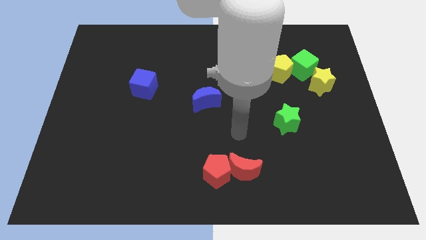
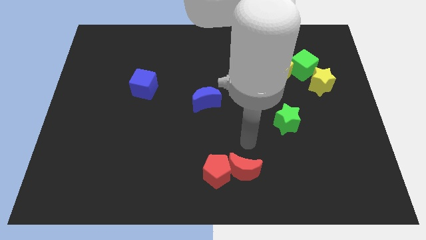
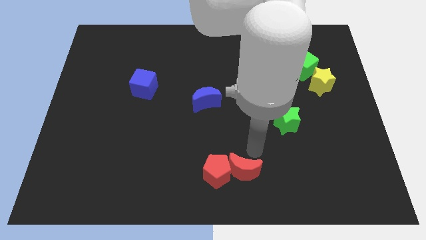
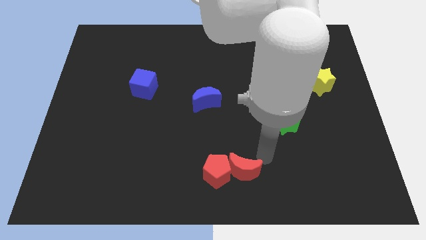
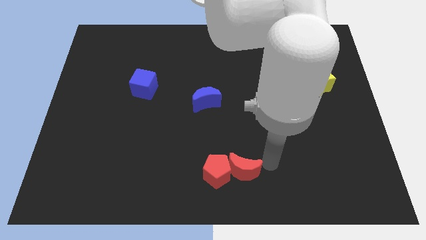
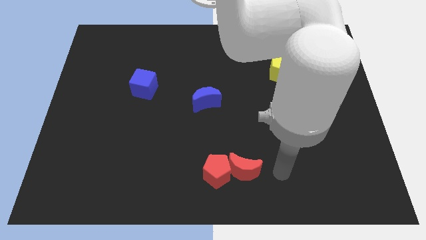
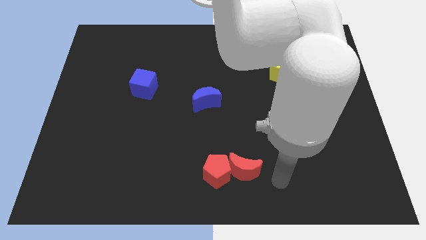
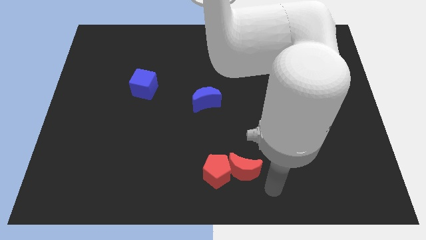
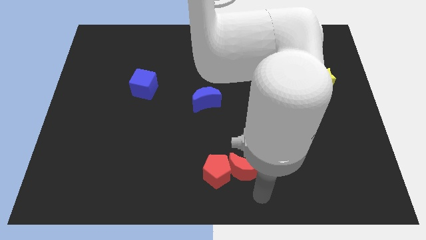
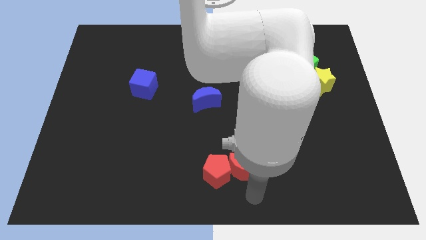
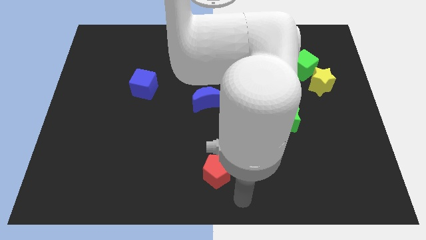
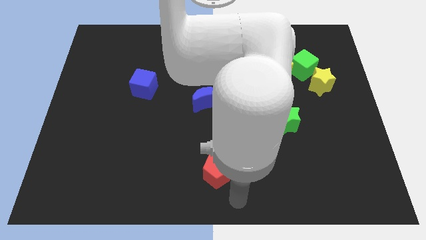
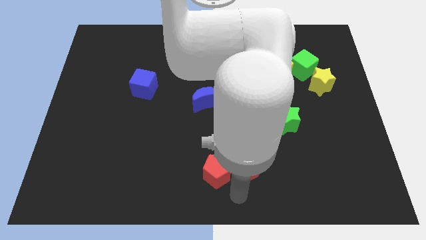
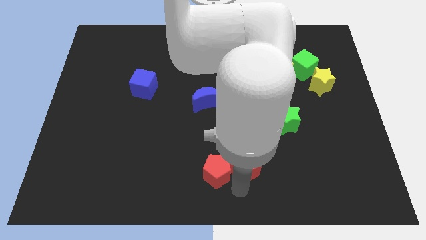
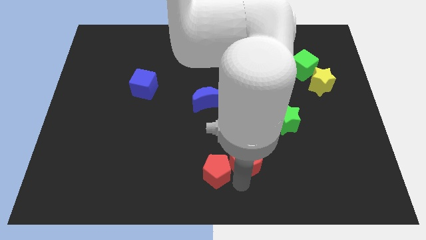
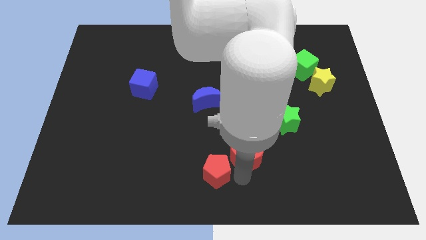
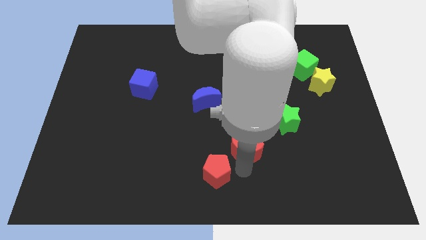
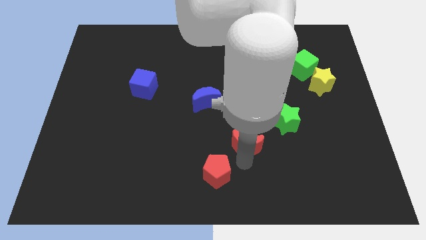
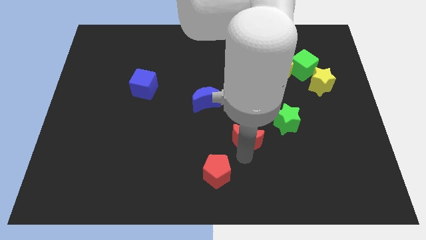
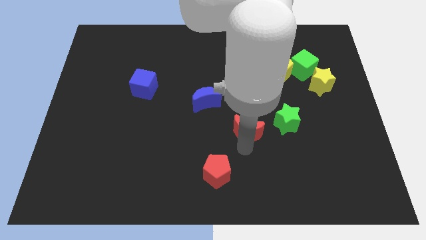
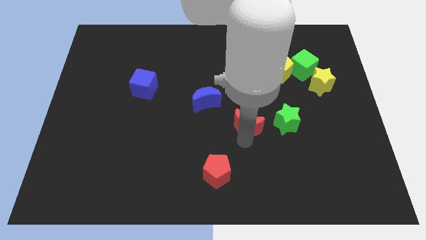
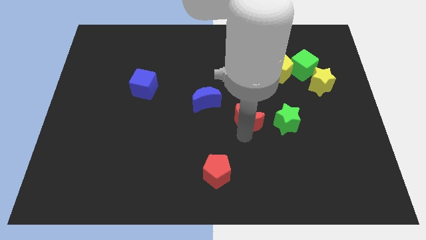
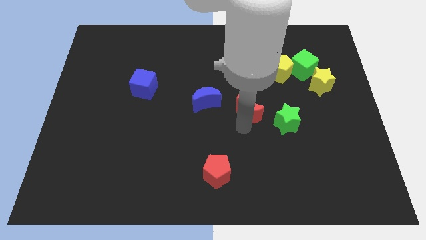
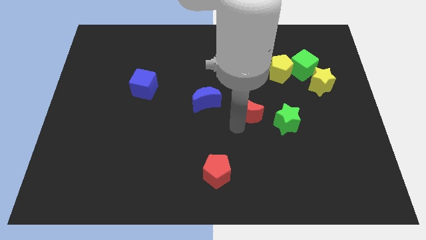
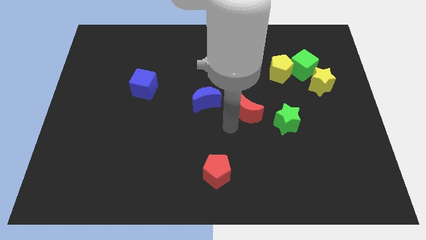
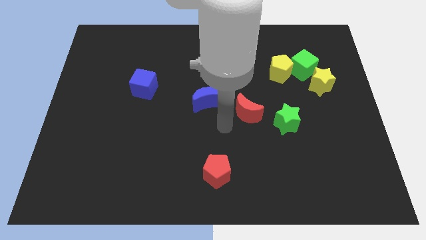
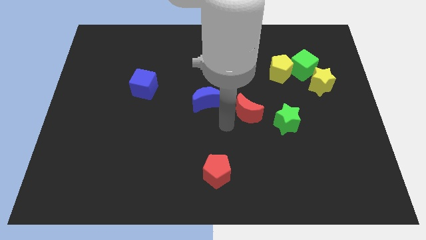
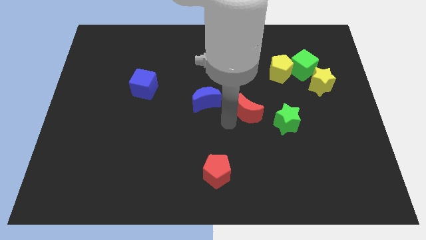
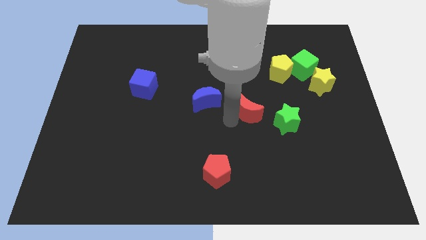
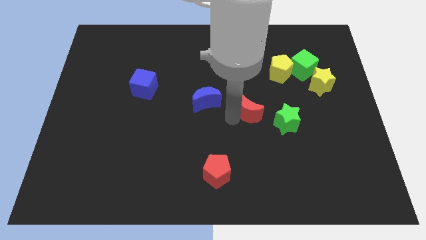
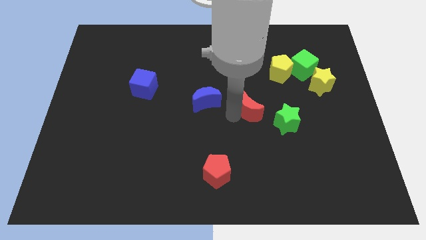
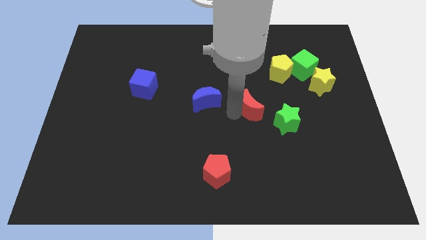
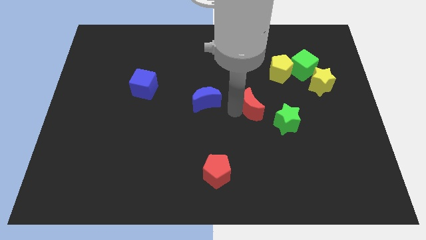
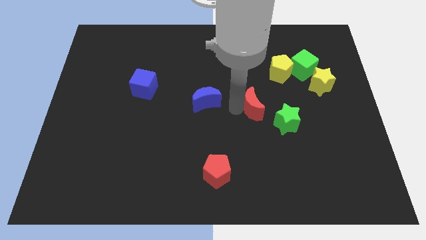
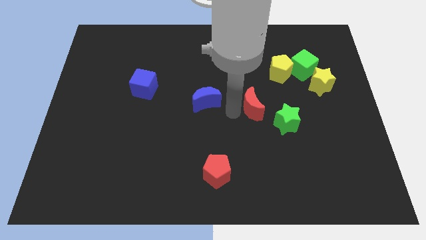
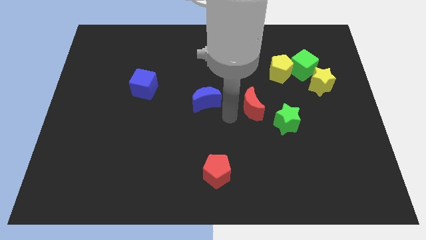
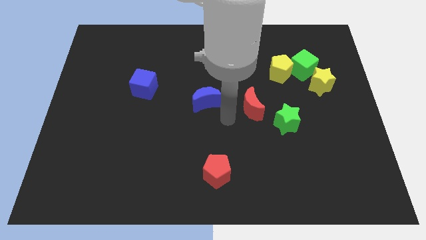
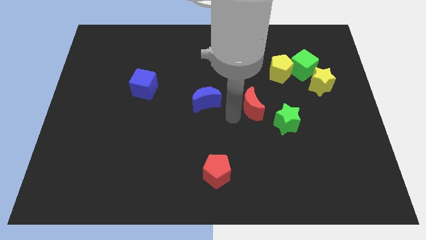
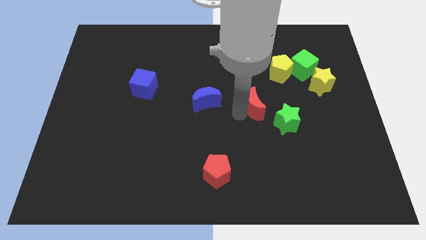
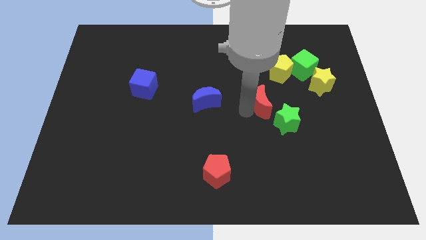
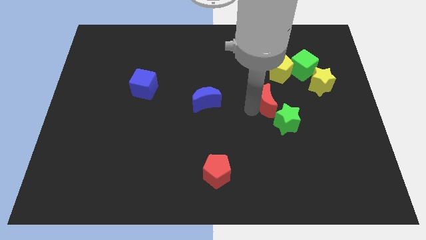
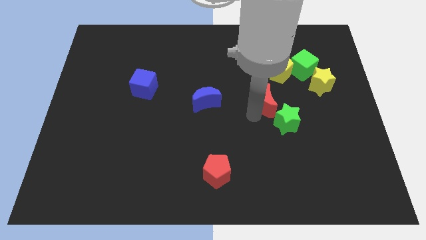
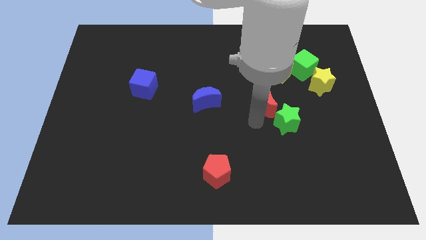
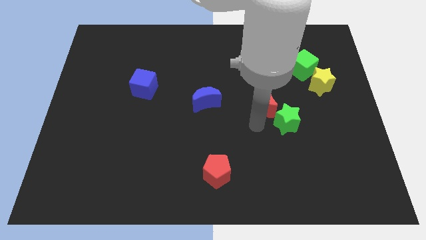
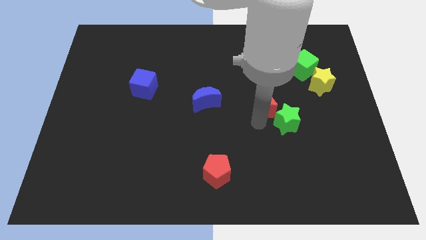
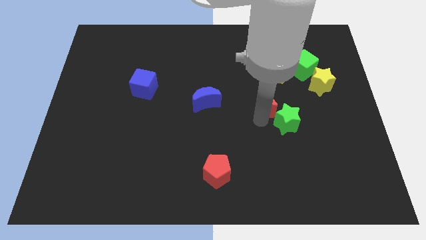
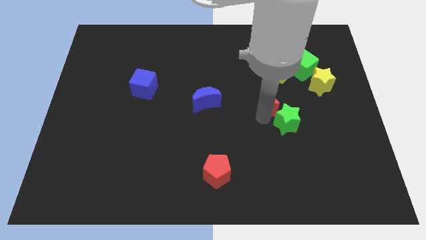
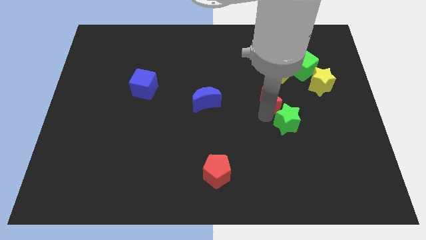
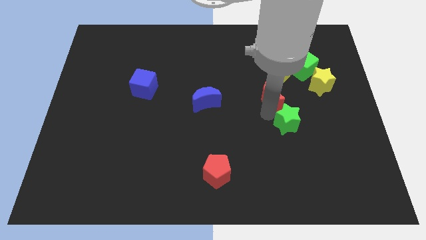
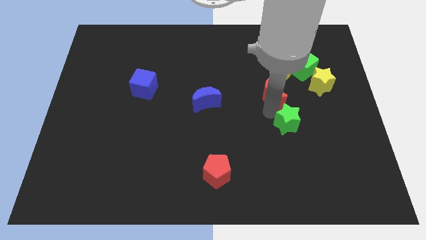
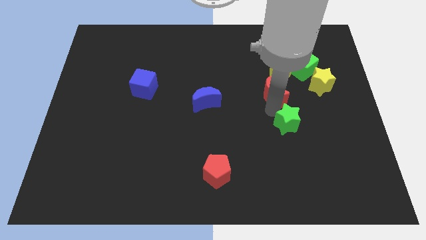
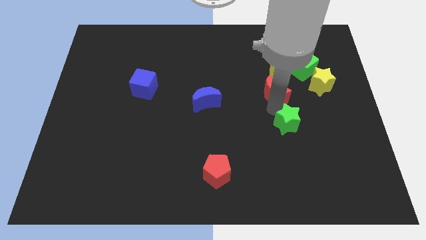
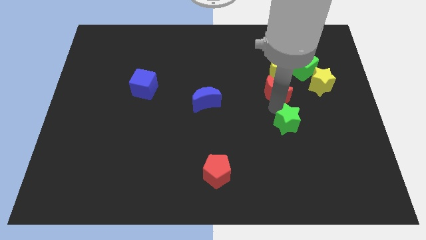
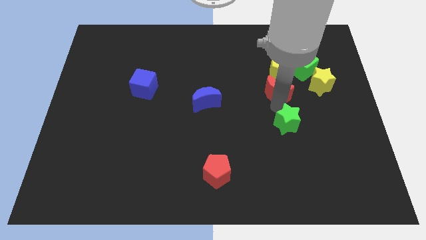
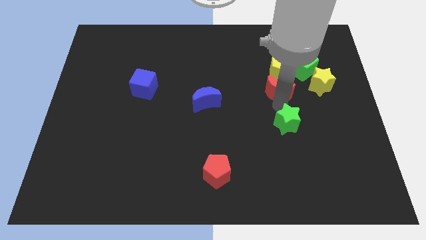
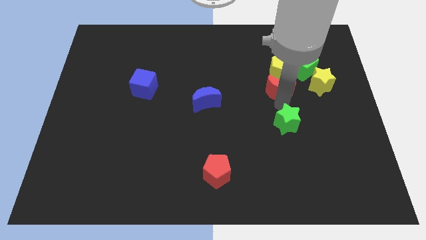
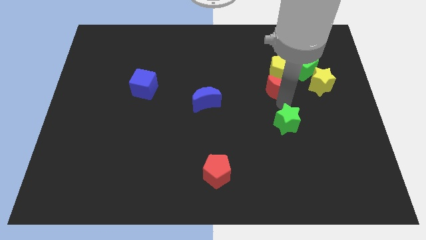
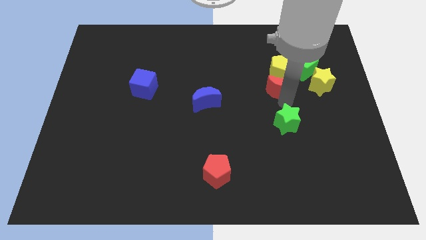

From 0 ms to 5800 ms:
move the red moon to the yellow pentagon

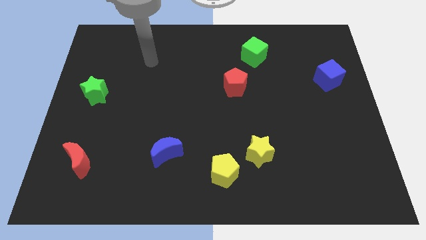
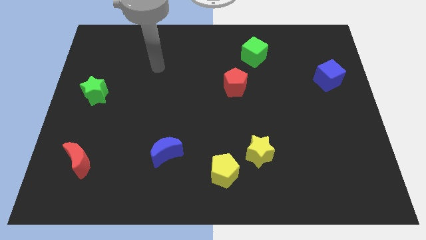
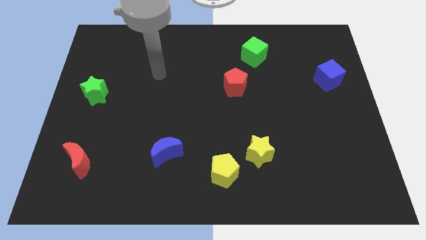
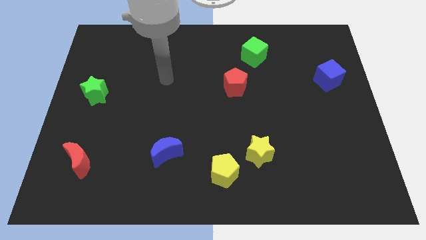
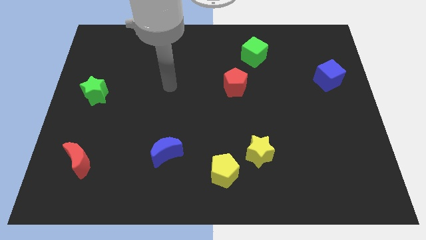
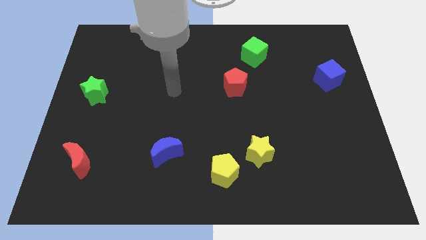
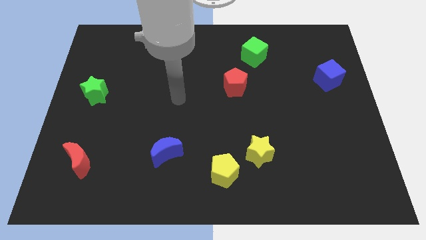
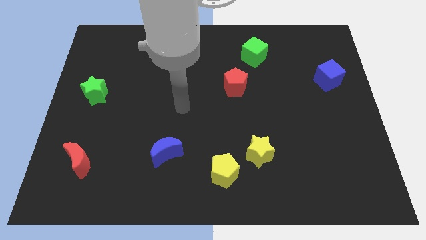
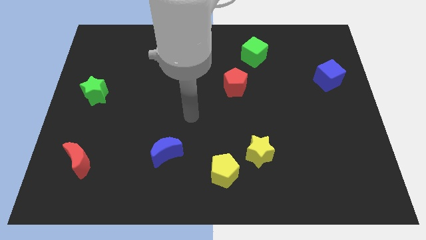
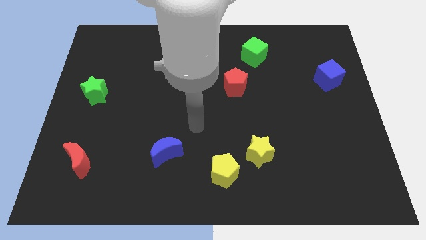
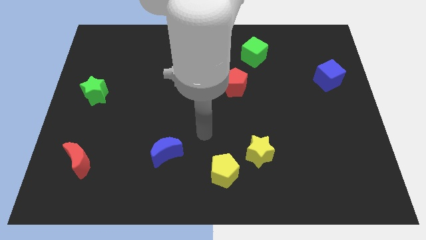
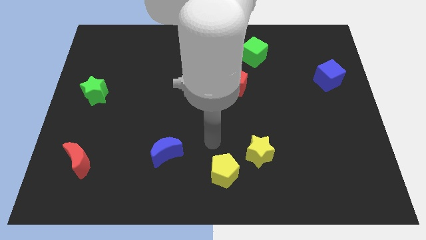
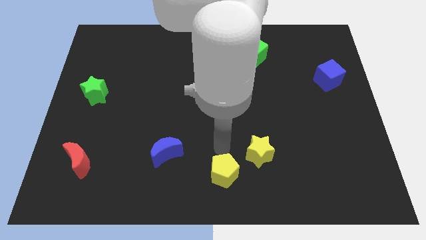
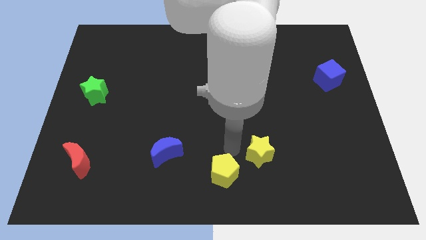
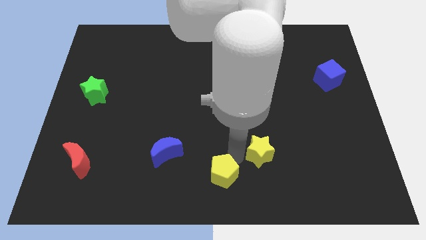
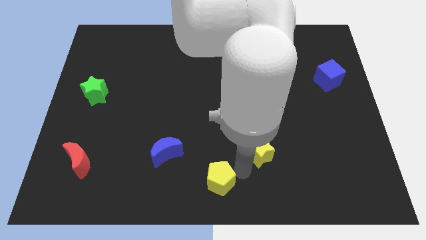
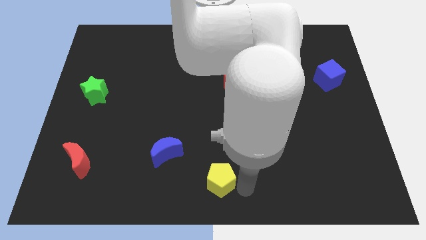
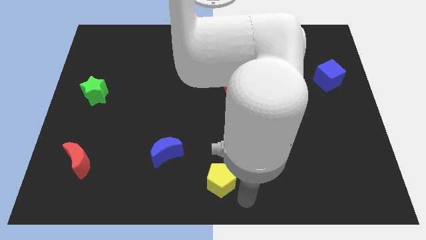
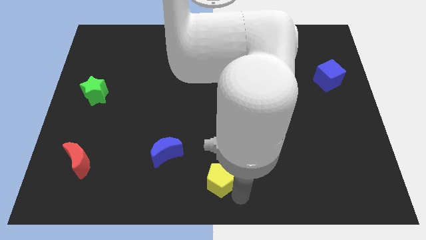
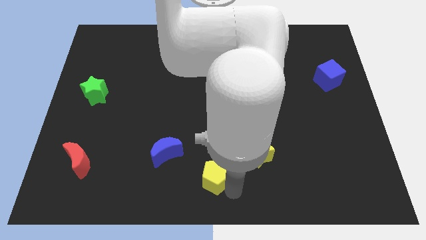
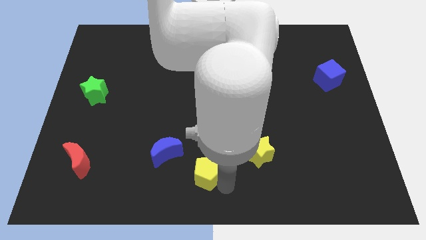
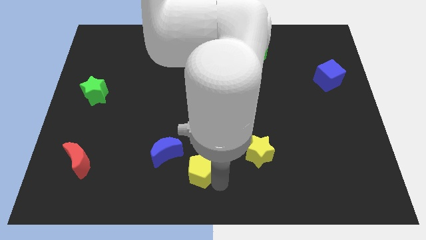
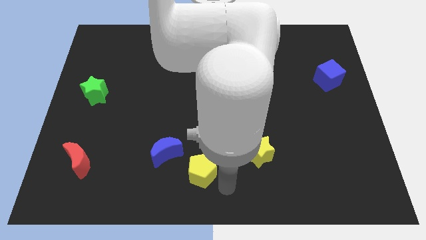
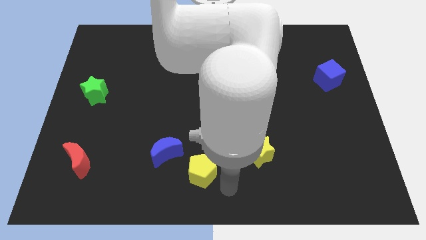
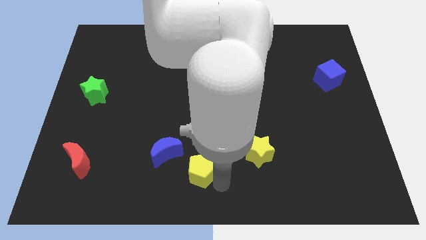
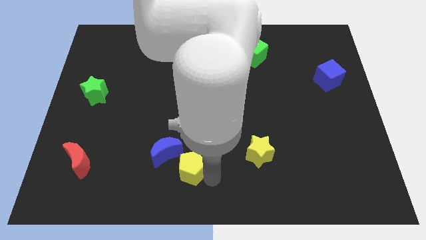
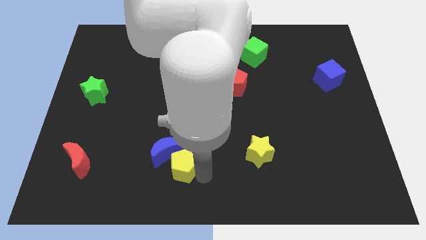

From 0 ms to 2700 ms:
move the yellow pentagon next to the blue moon
